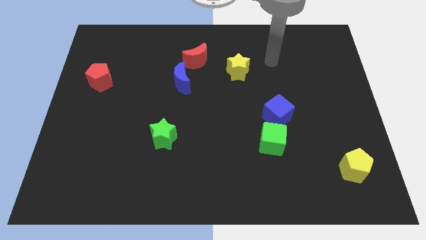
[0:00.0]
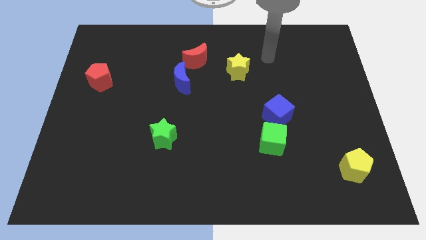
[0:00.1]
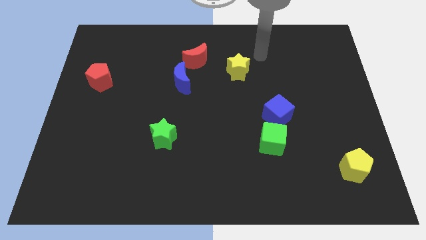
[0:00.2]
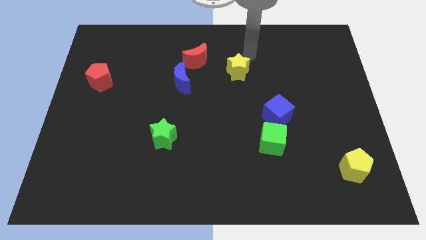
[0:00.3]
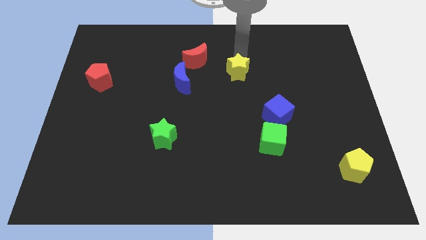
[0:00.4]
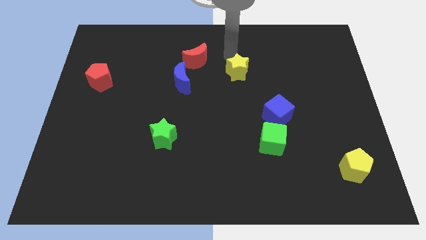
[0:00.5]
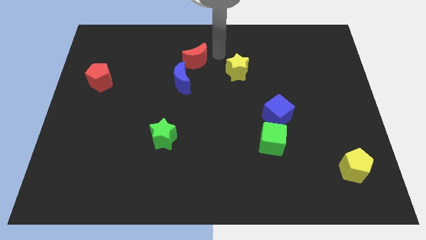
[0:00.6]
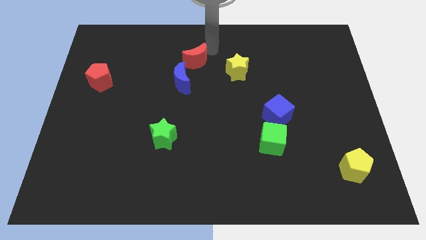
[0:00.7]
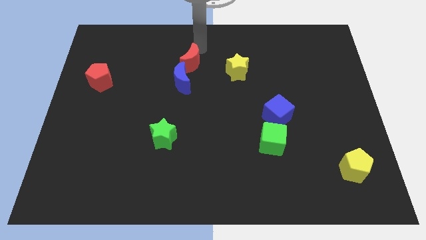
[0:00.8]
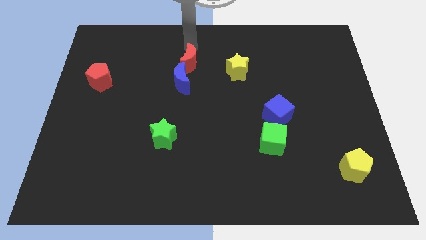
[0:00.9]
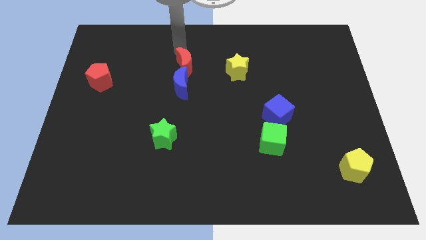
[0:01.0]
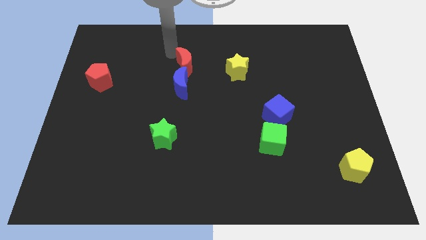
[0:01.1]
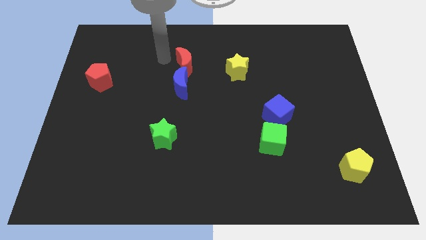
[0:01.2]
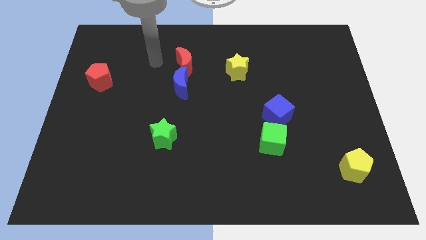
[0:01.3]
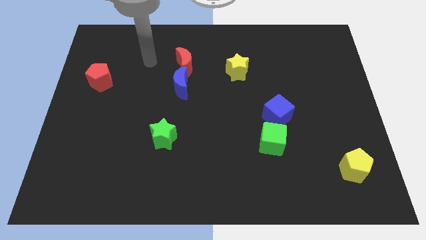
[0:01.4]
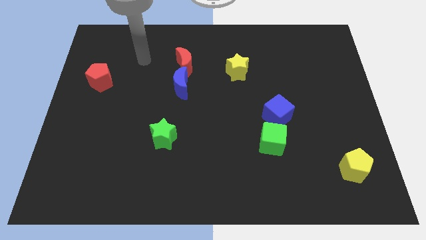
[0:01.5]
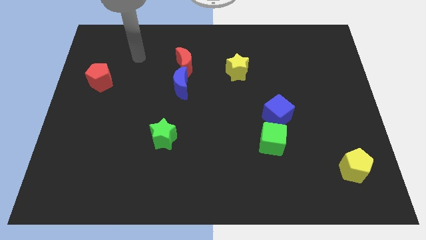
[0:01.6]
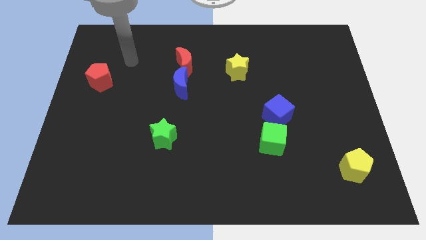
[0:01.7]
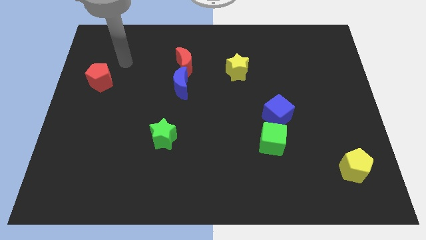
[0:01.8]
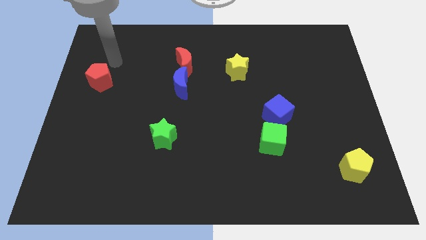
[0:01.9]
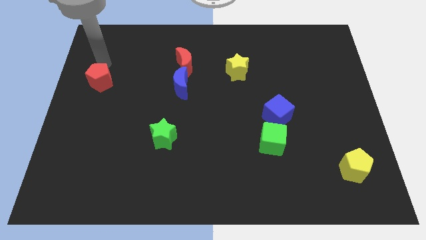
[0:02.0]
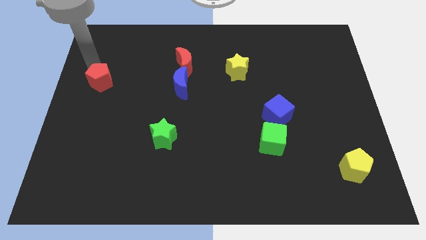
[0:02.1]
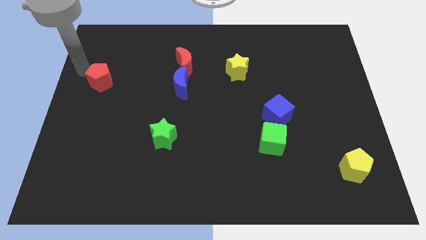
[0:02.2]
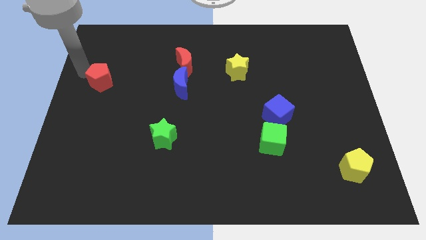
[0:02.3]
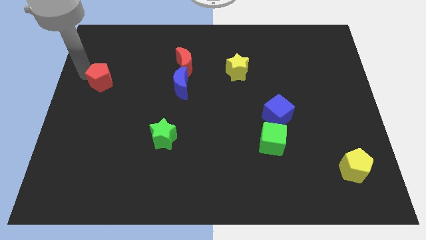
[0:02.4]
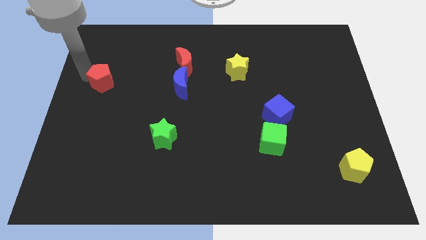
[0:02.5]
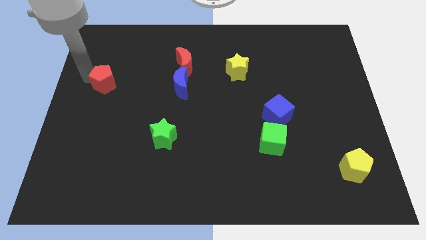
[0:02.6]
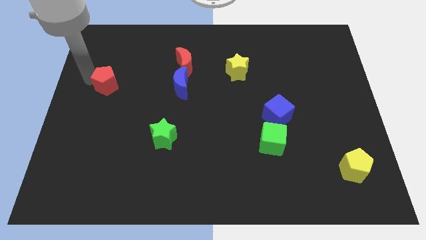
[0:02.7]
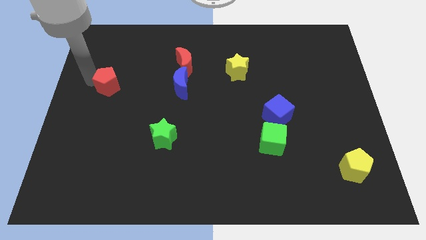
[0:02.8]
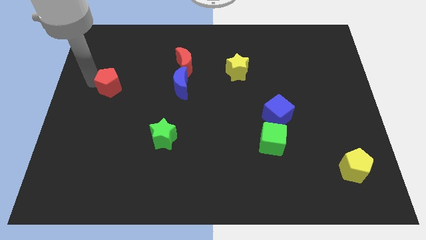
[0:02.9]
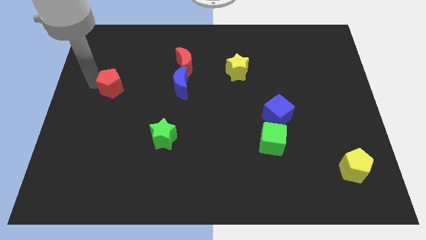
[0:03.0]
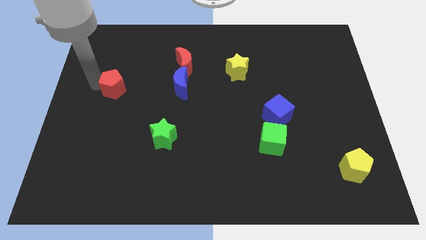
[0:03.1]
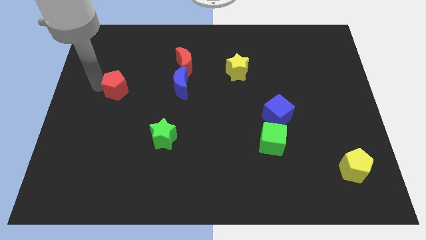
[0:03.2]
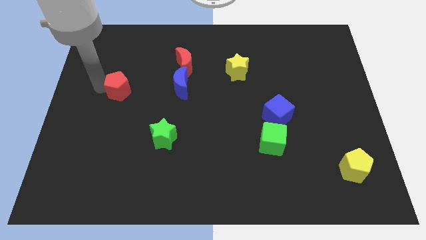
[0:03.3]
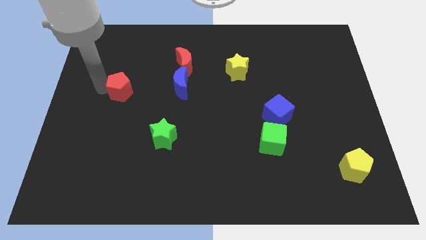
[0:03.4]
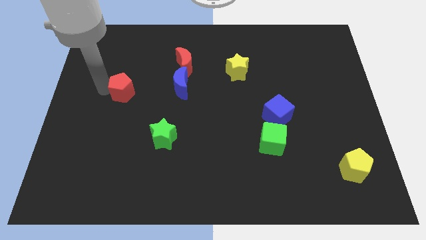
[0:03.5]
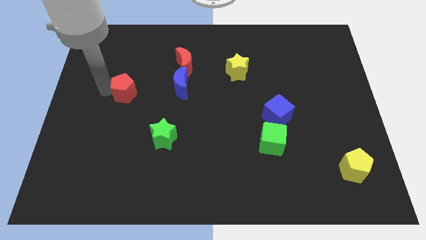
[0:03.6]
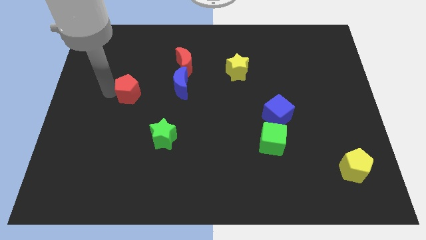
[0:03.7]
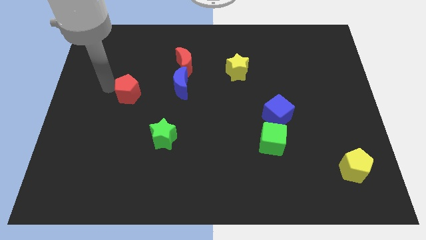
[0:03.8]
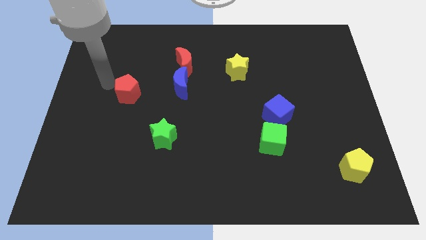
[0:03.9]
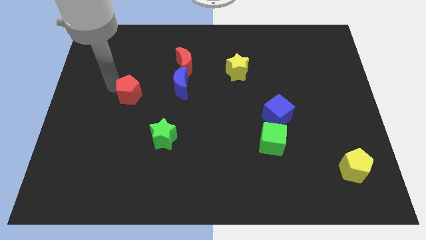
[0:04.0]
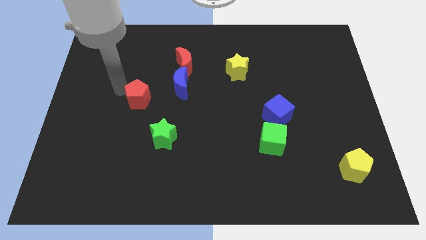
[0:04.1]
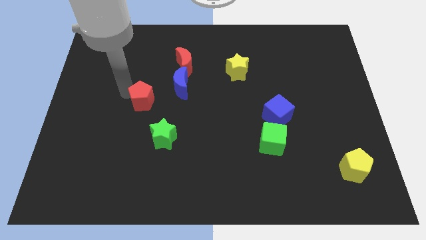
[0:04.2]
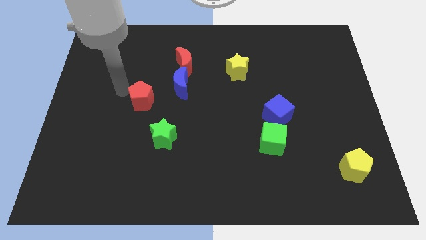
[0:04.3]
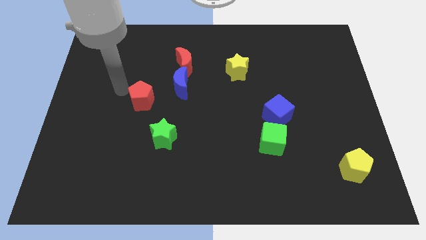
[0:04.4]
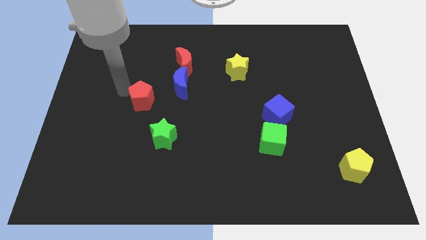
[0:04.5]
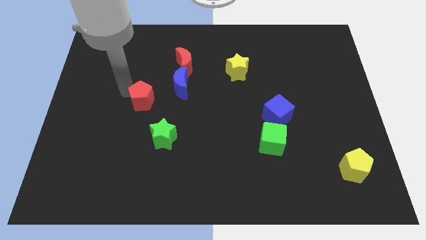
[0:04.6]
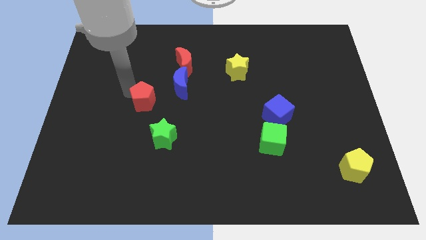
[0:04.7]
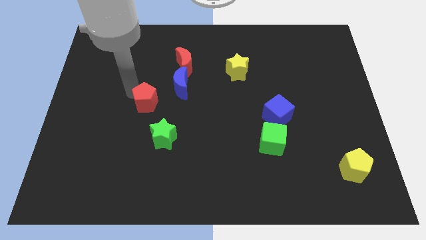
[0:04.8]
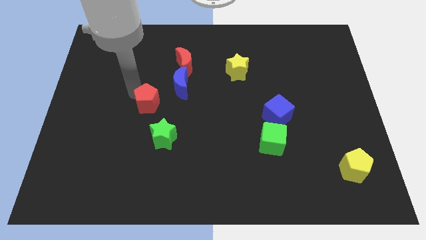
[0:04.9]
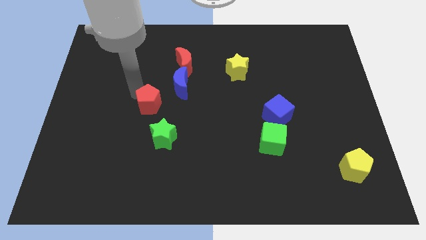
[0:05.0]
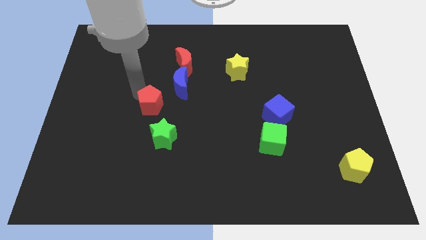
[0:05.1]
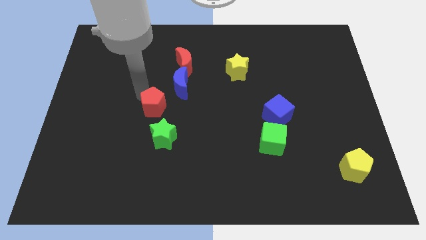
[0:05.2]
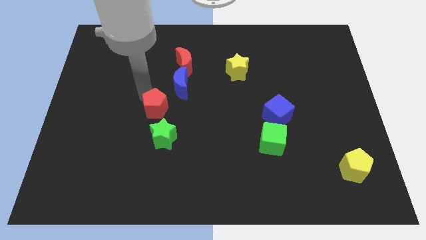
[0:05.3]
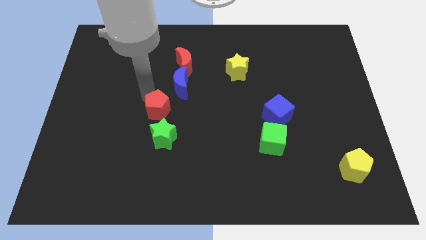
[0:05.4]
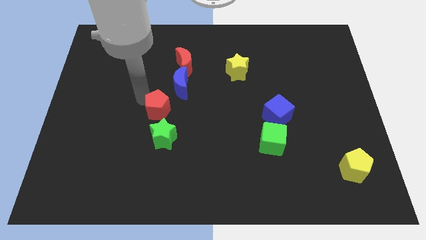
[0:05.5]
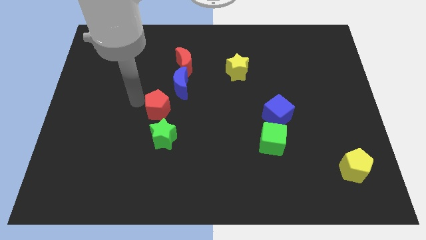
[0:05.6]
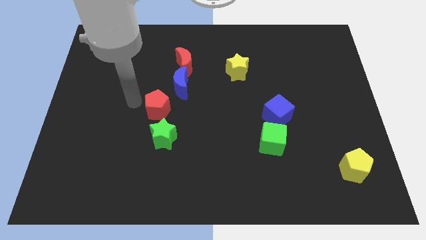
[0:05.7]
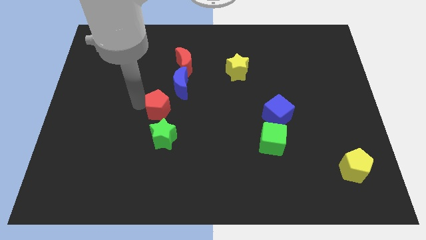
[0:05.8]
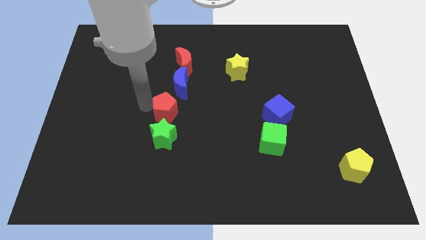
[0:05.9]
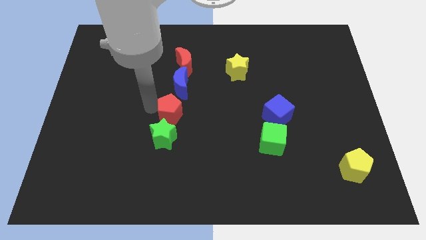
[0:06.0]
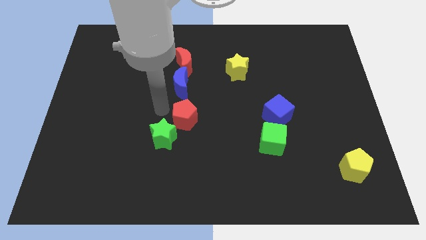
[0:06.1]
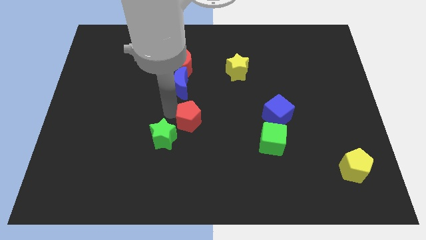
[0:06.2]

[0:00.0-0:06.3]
slide the red pentagon to the right side of the green star
